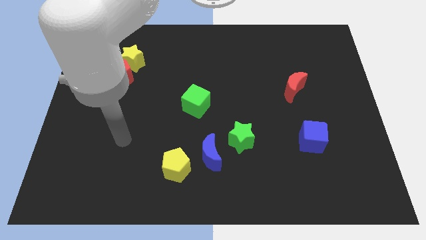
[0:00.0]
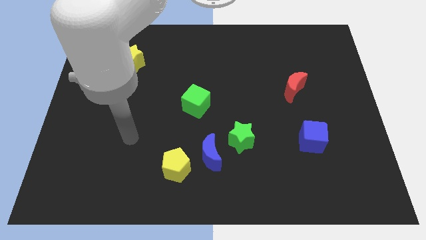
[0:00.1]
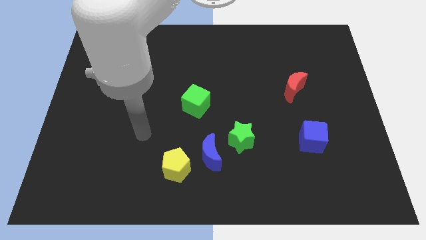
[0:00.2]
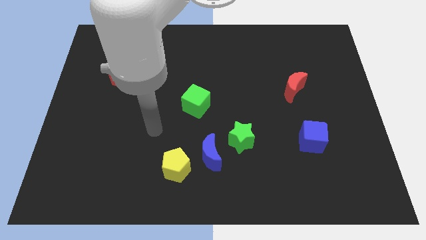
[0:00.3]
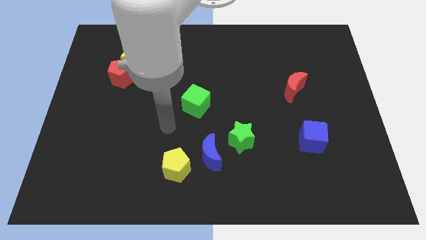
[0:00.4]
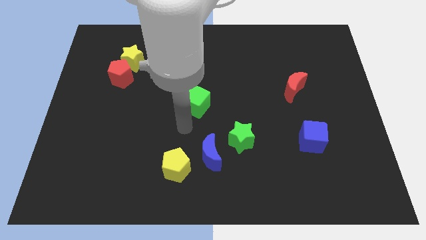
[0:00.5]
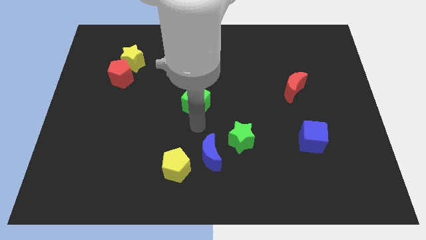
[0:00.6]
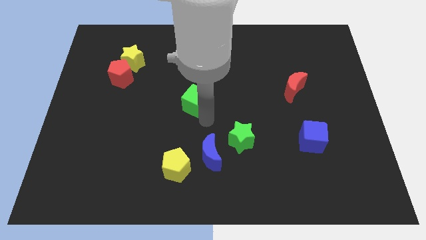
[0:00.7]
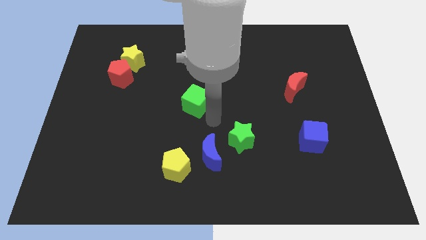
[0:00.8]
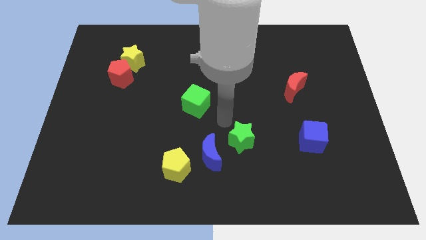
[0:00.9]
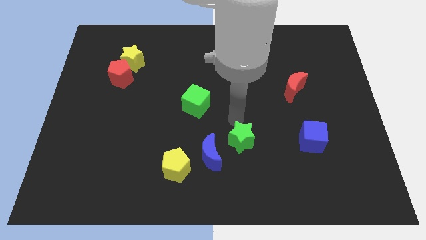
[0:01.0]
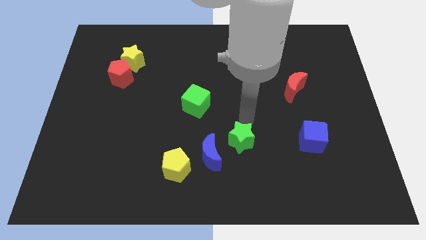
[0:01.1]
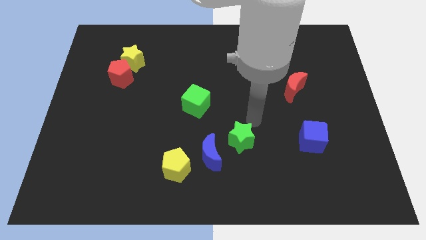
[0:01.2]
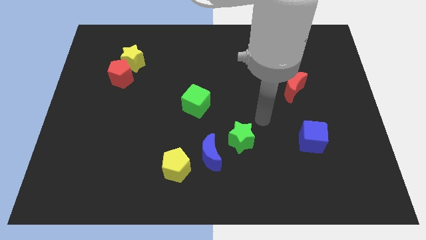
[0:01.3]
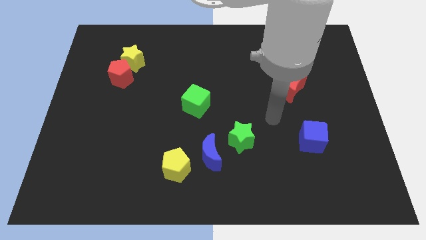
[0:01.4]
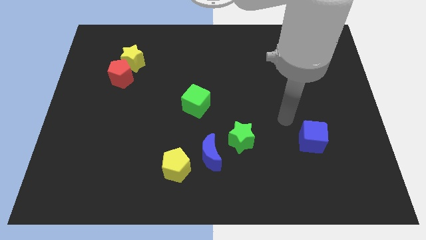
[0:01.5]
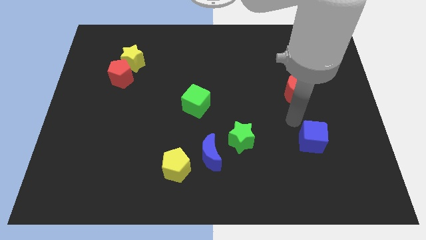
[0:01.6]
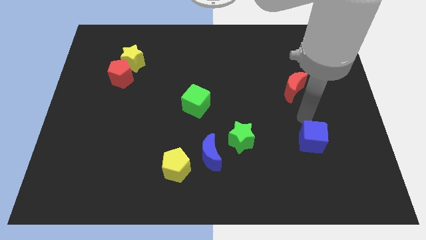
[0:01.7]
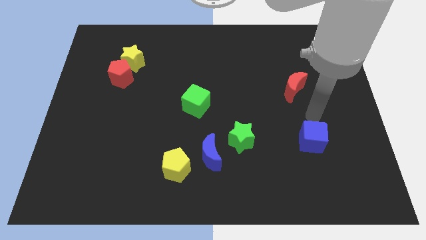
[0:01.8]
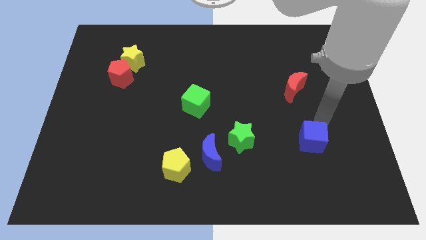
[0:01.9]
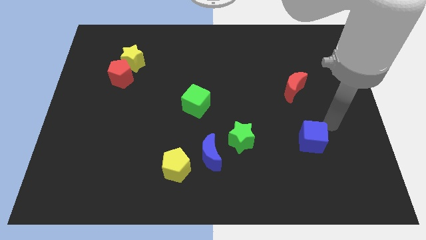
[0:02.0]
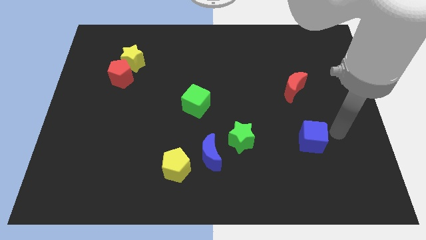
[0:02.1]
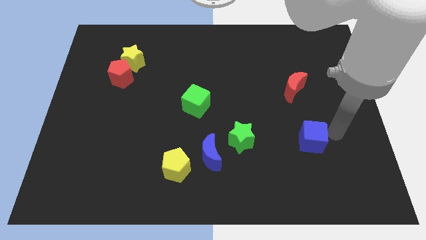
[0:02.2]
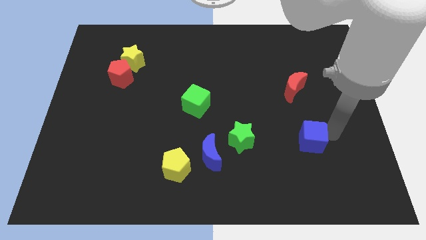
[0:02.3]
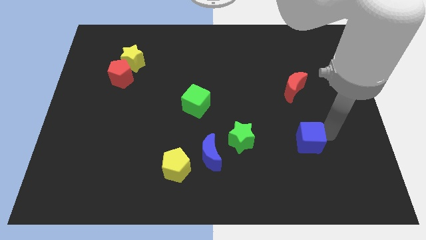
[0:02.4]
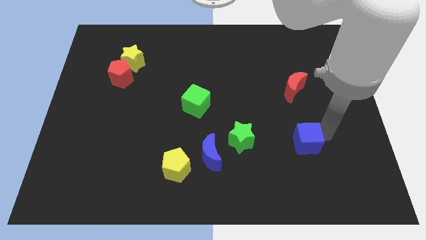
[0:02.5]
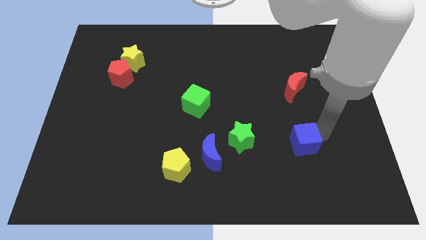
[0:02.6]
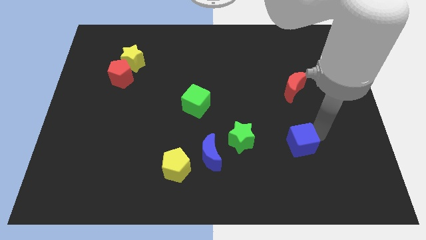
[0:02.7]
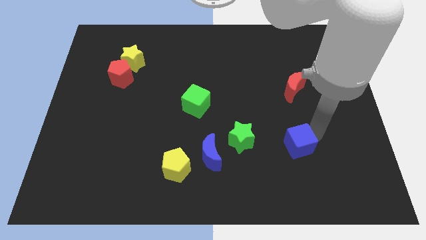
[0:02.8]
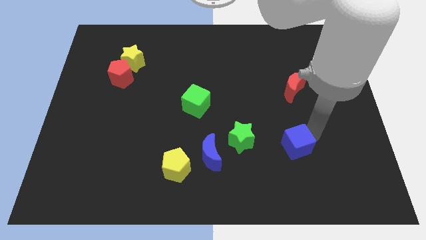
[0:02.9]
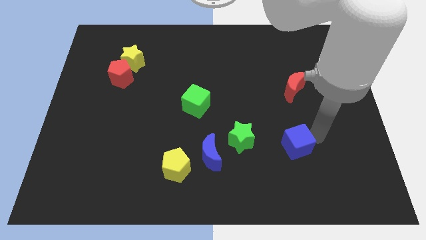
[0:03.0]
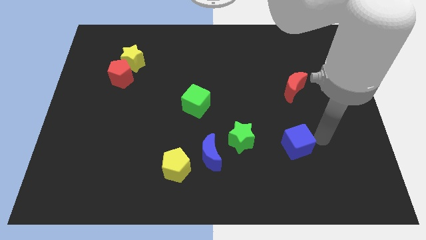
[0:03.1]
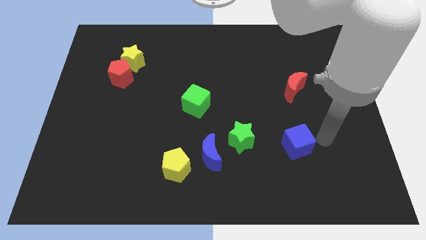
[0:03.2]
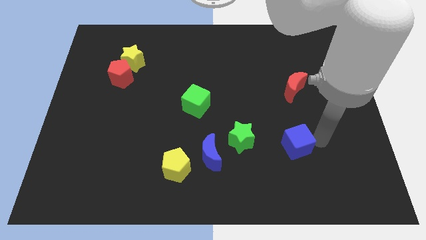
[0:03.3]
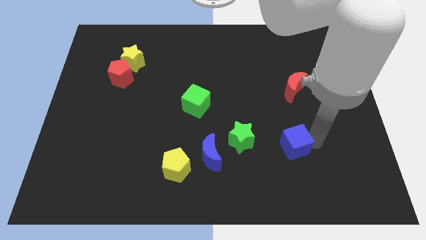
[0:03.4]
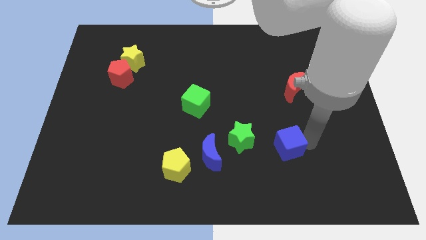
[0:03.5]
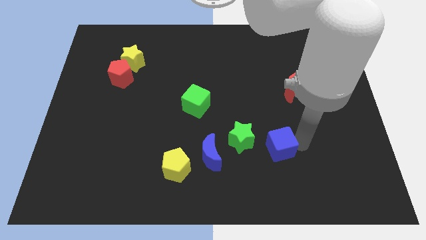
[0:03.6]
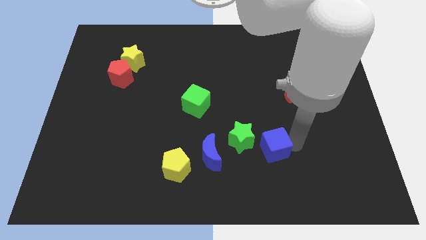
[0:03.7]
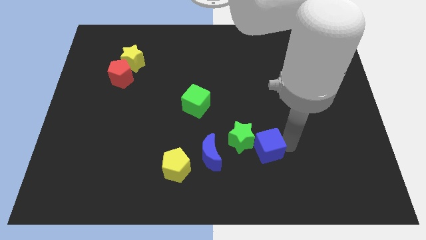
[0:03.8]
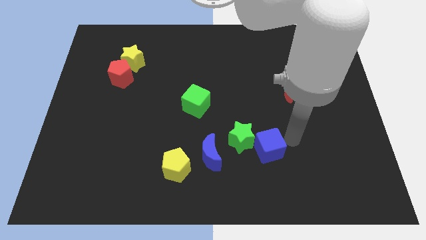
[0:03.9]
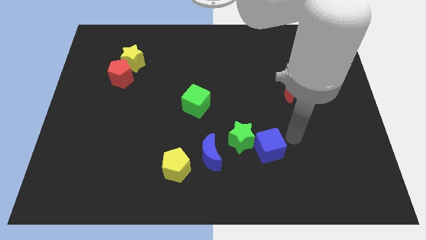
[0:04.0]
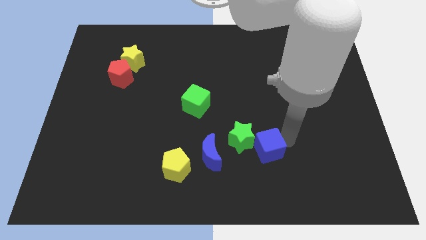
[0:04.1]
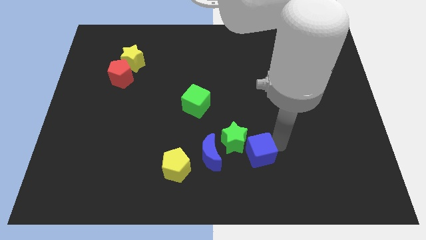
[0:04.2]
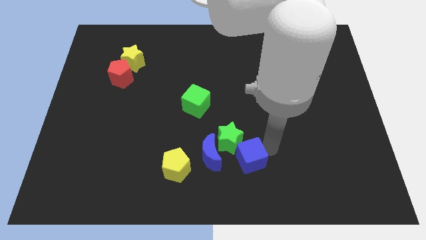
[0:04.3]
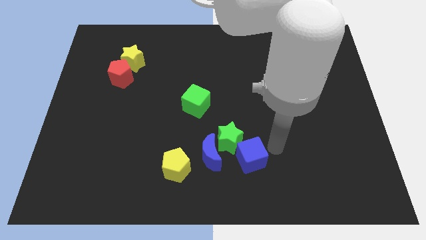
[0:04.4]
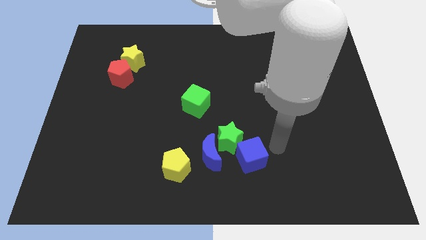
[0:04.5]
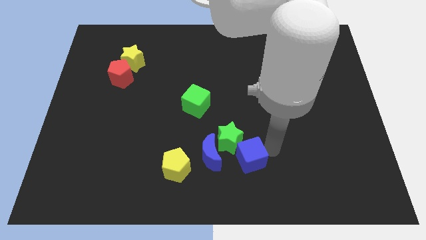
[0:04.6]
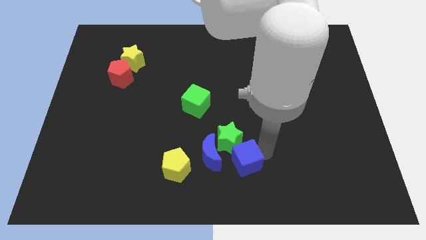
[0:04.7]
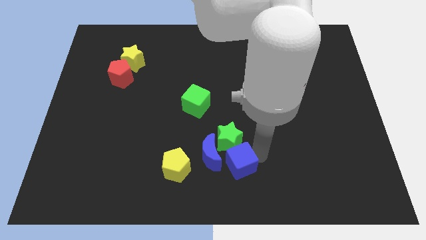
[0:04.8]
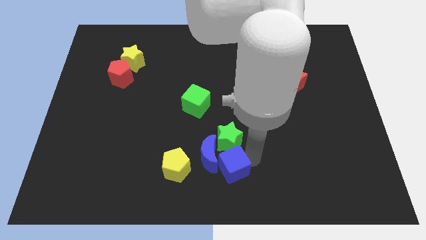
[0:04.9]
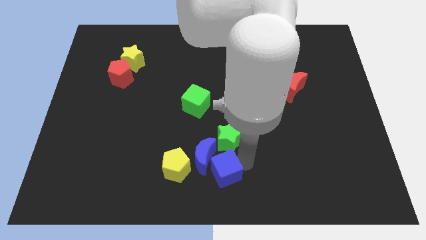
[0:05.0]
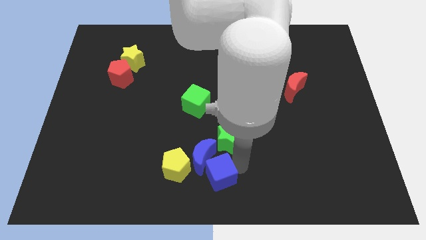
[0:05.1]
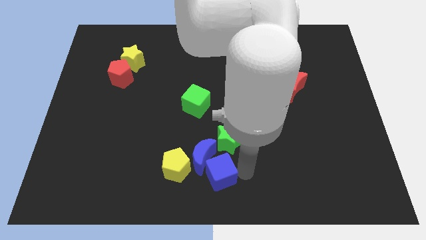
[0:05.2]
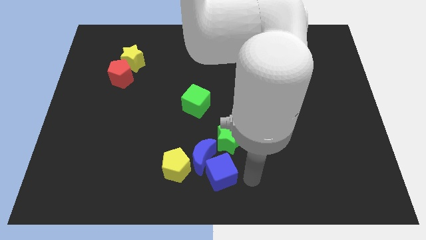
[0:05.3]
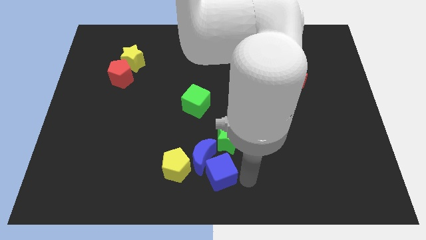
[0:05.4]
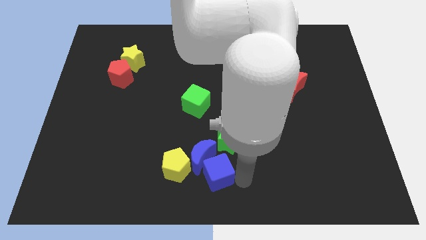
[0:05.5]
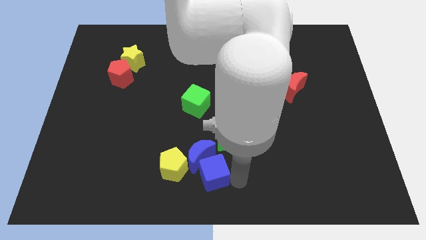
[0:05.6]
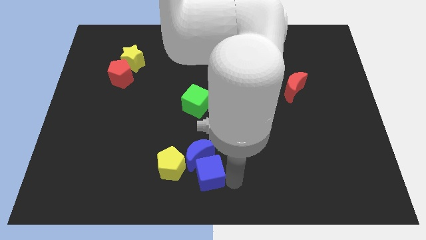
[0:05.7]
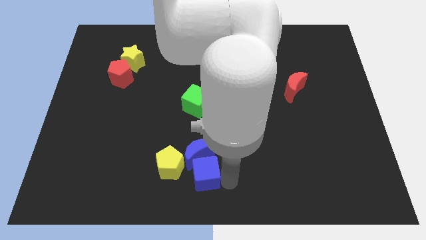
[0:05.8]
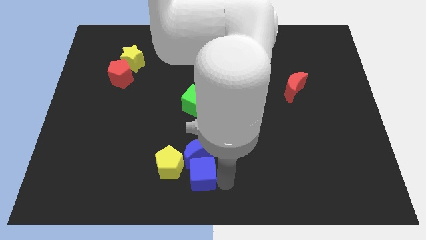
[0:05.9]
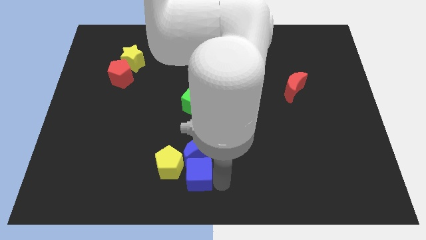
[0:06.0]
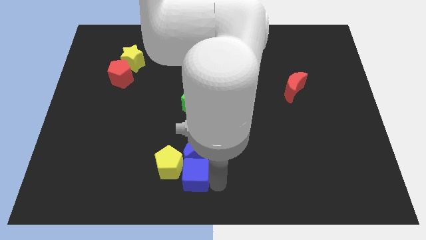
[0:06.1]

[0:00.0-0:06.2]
move the blue cube close to the yellow pentagon

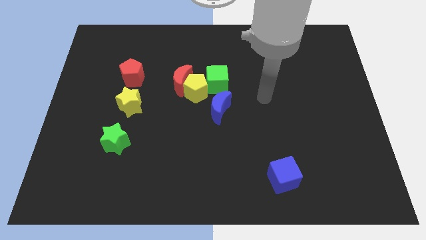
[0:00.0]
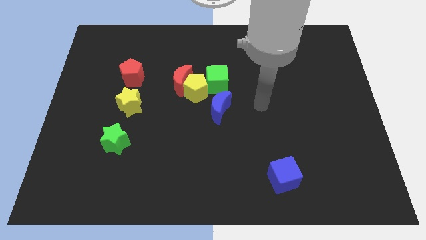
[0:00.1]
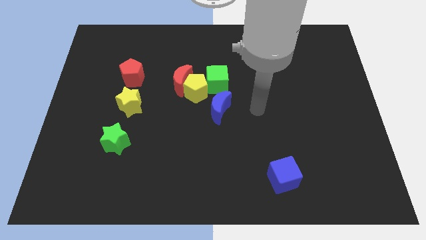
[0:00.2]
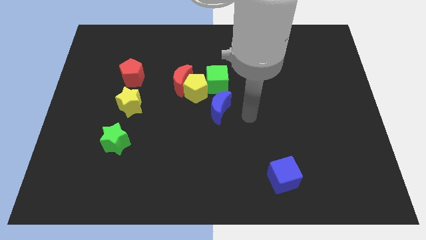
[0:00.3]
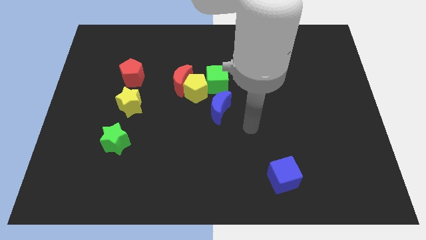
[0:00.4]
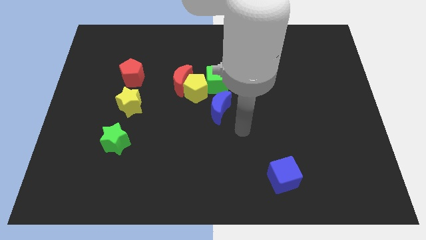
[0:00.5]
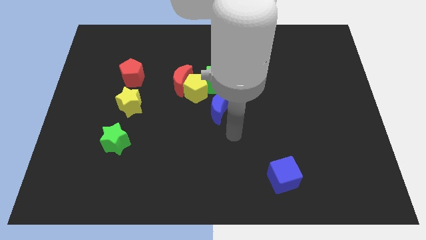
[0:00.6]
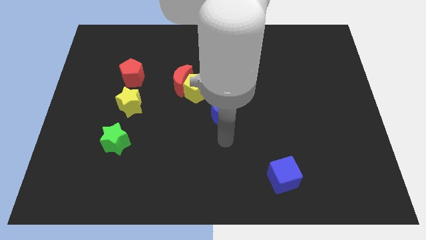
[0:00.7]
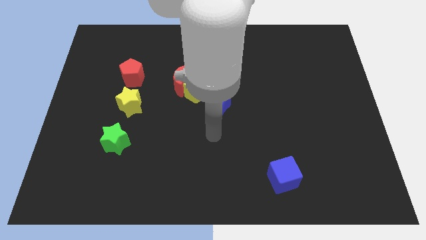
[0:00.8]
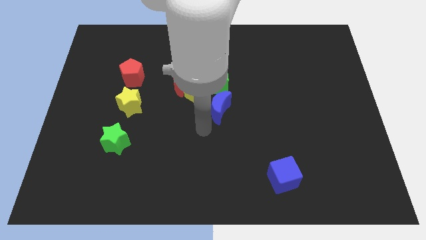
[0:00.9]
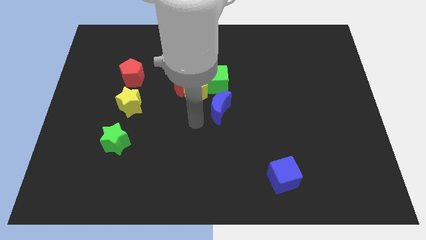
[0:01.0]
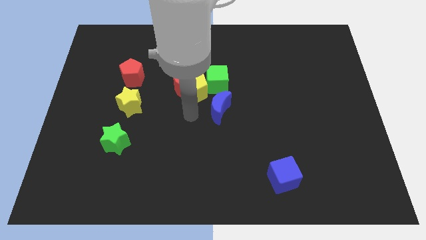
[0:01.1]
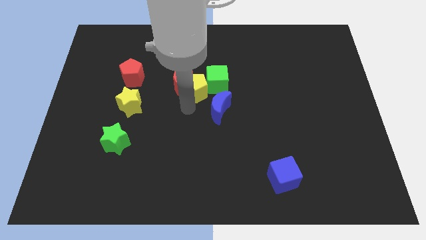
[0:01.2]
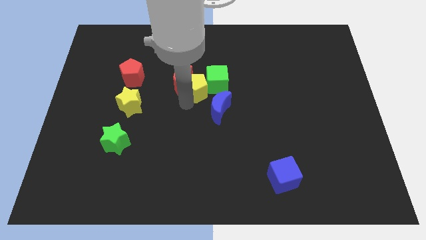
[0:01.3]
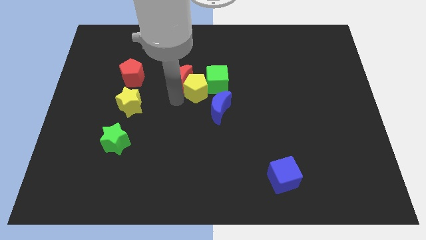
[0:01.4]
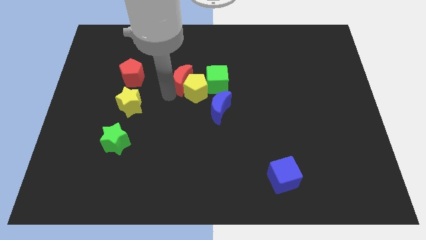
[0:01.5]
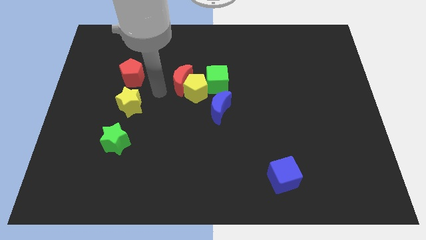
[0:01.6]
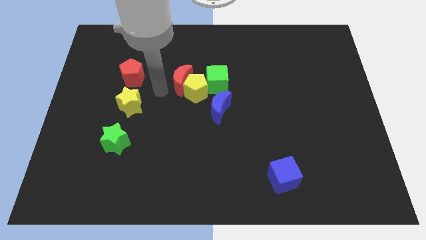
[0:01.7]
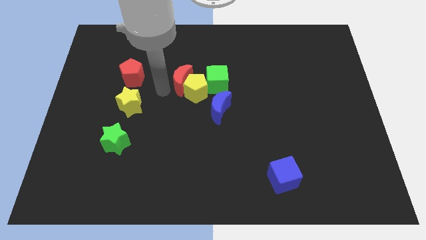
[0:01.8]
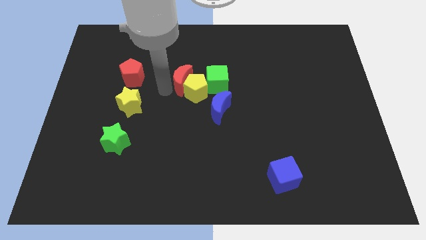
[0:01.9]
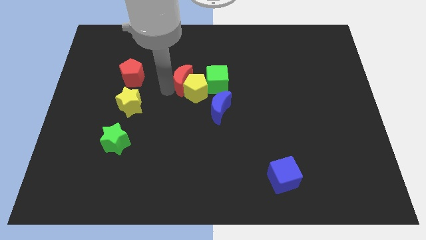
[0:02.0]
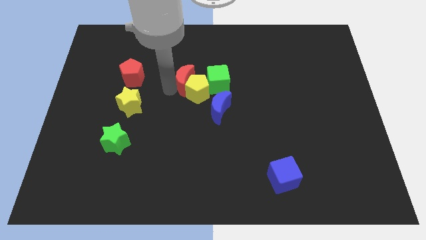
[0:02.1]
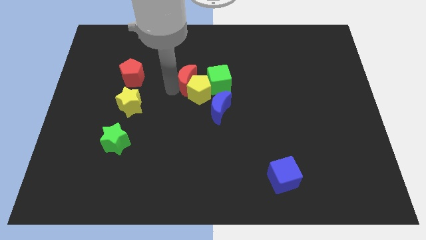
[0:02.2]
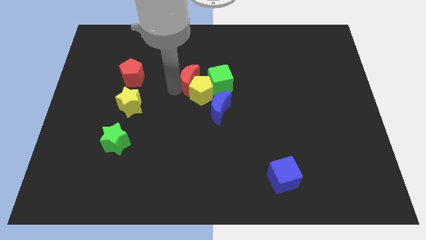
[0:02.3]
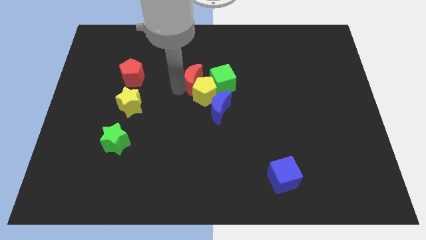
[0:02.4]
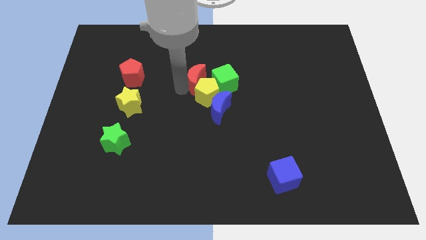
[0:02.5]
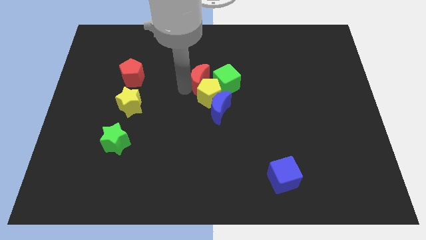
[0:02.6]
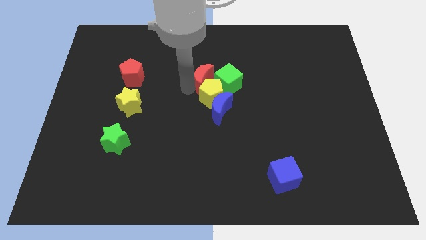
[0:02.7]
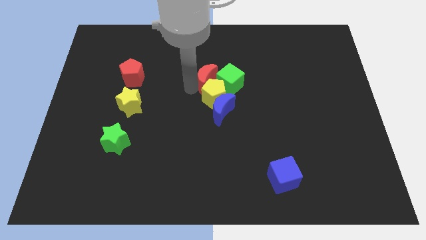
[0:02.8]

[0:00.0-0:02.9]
move the red moon to the green cube
